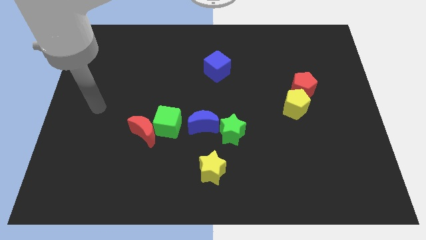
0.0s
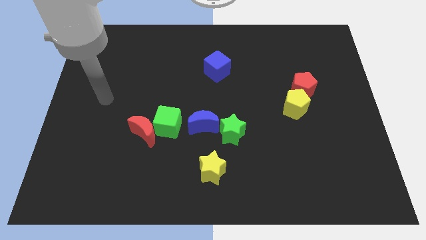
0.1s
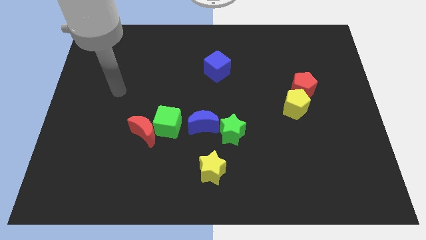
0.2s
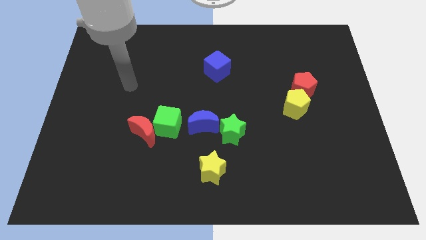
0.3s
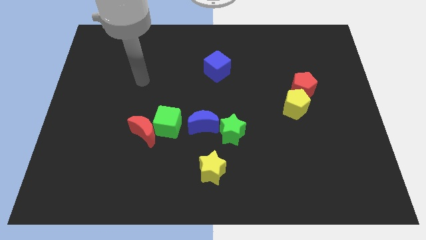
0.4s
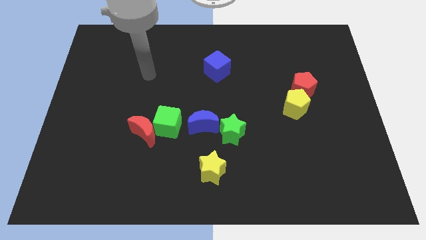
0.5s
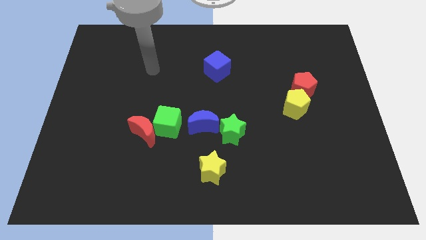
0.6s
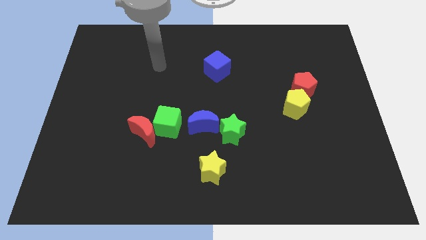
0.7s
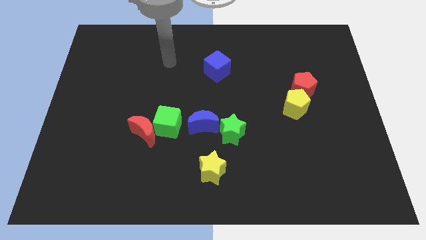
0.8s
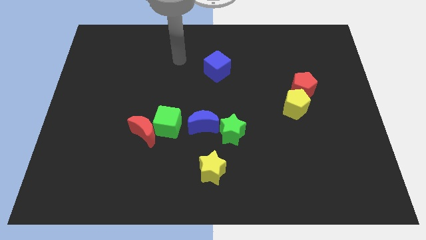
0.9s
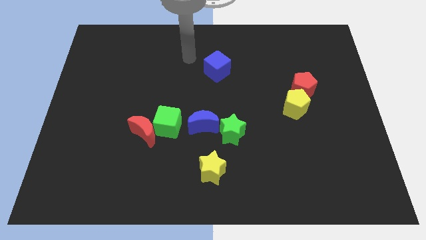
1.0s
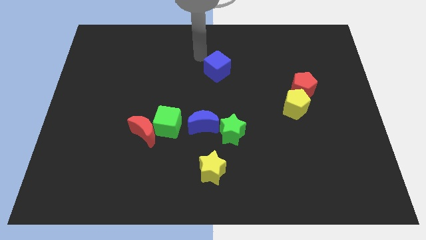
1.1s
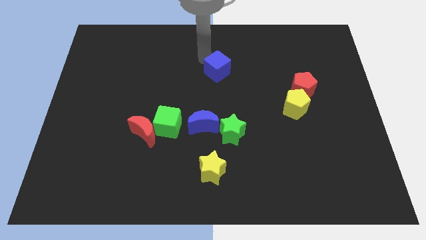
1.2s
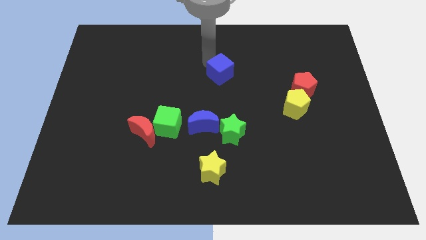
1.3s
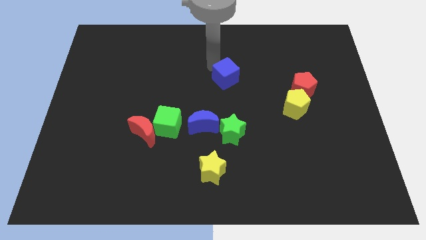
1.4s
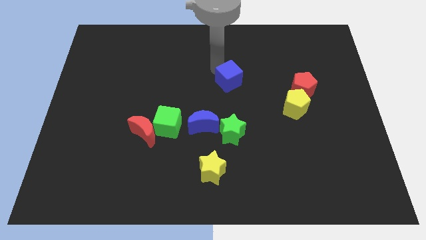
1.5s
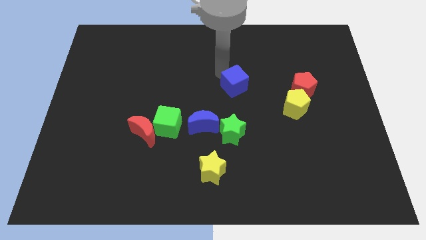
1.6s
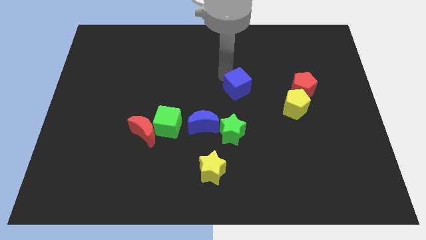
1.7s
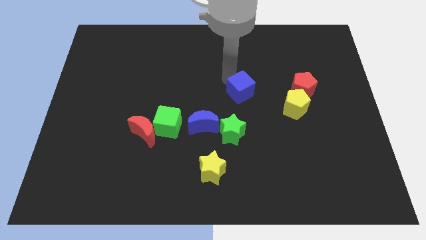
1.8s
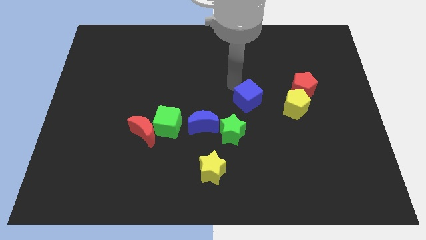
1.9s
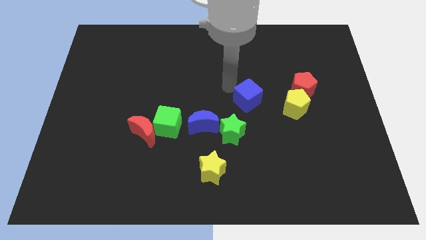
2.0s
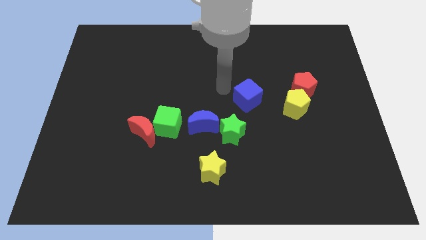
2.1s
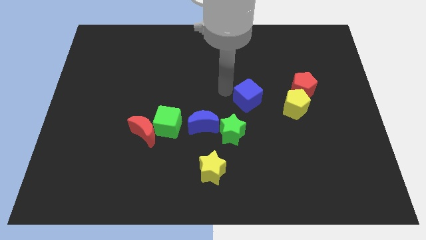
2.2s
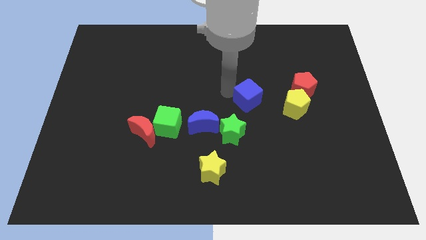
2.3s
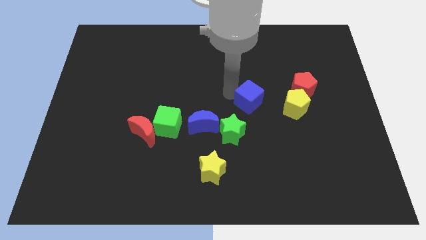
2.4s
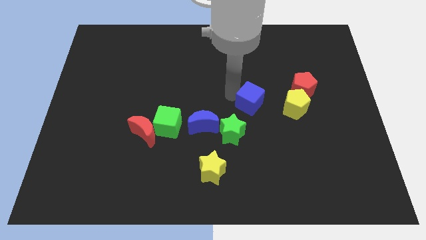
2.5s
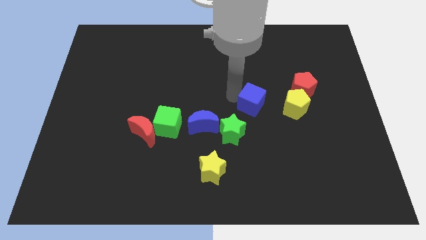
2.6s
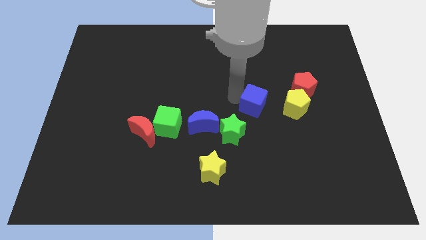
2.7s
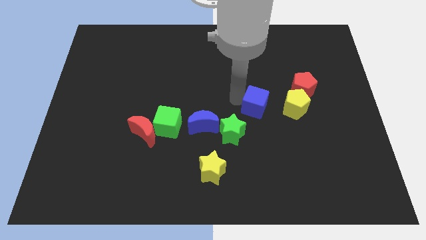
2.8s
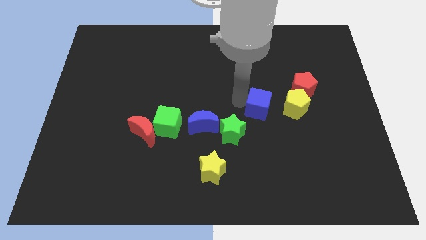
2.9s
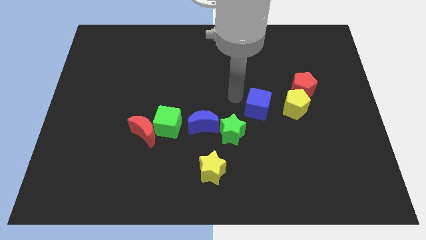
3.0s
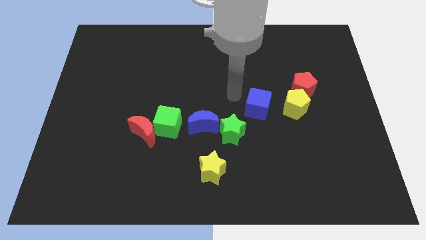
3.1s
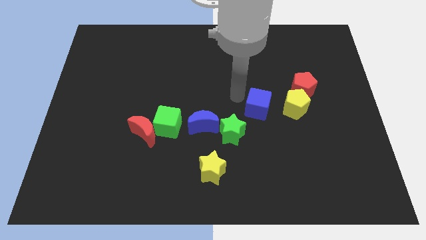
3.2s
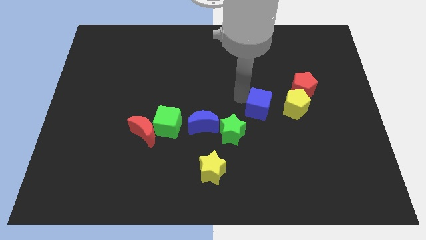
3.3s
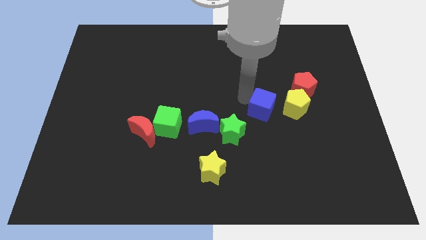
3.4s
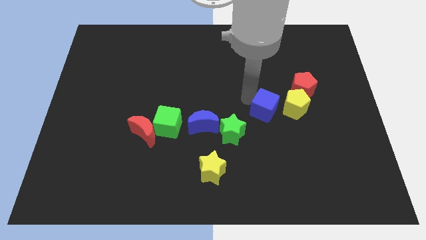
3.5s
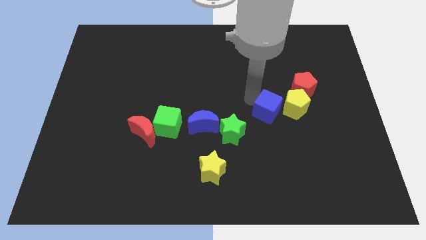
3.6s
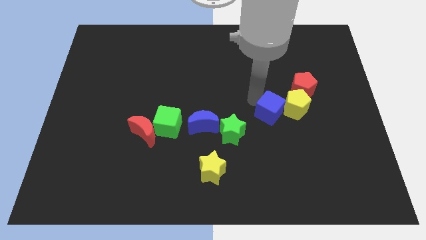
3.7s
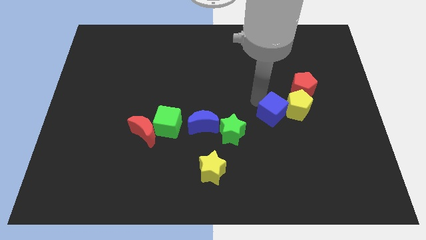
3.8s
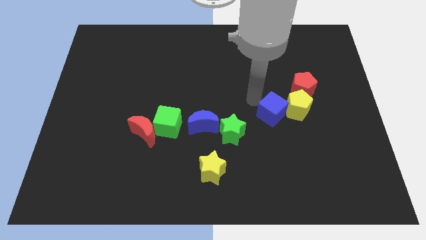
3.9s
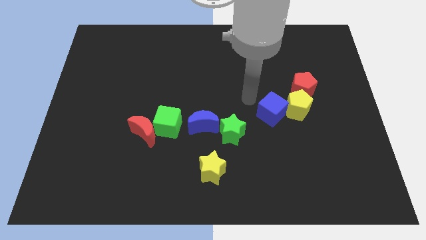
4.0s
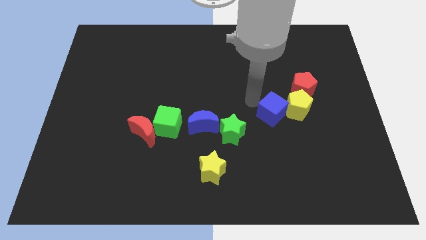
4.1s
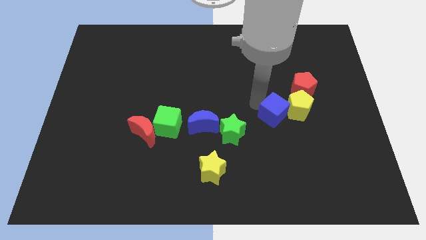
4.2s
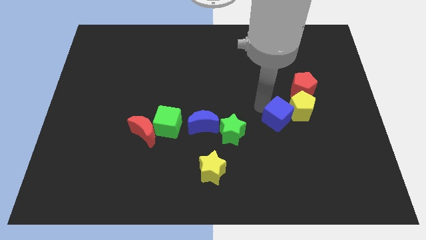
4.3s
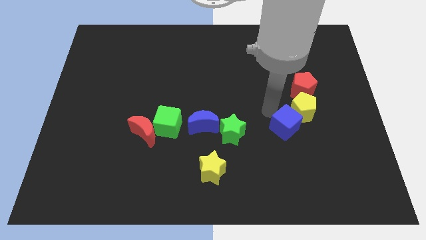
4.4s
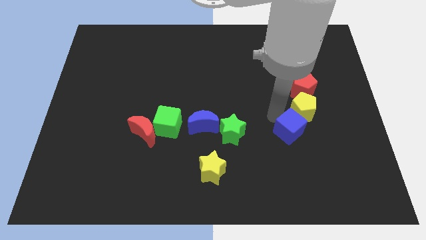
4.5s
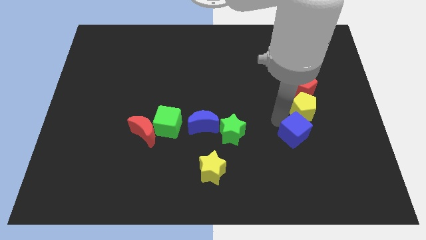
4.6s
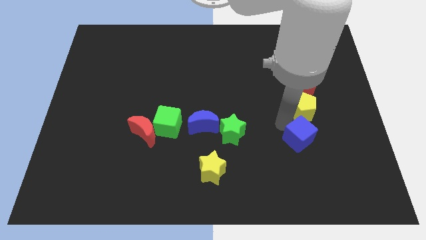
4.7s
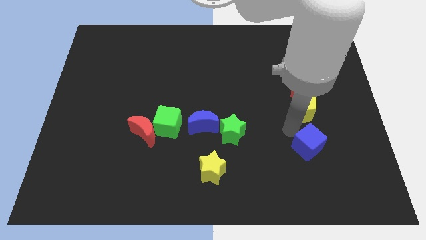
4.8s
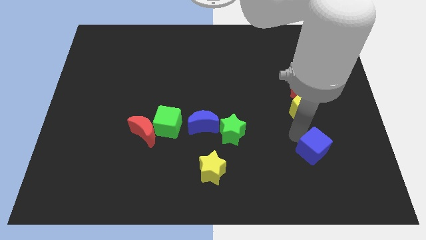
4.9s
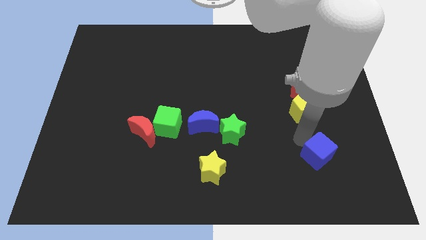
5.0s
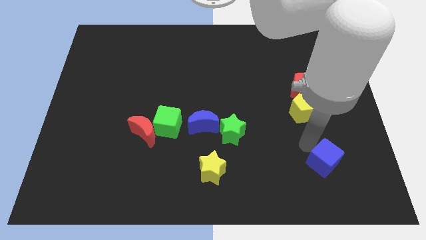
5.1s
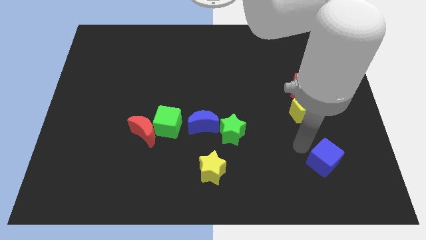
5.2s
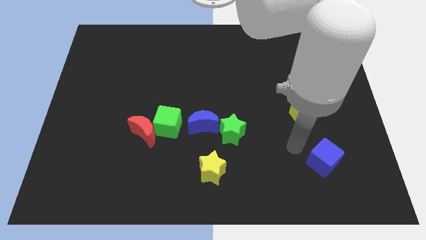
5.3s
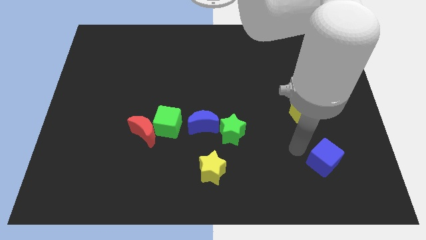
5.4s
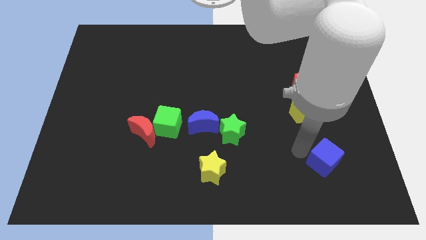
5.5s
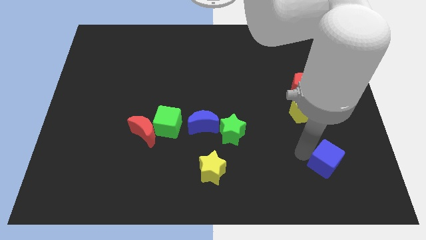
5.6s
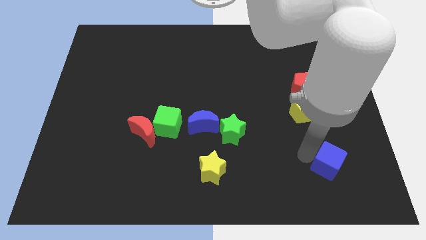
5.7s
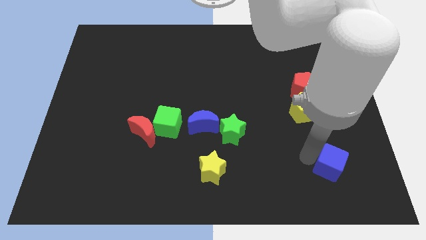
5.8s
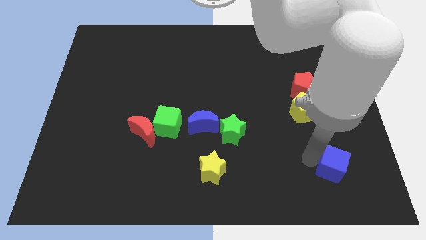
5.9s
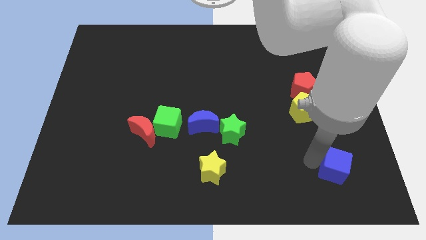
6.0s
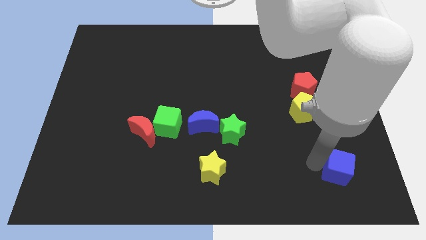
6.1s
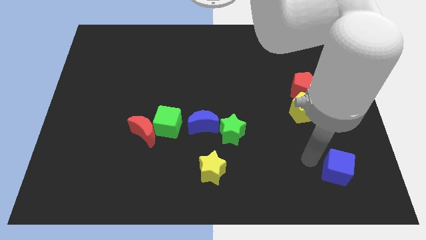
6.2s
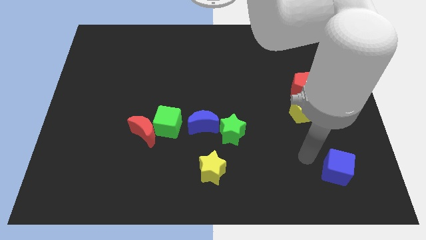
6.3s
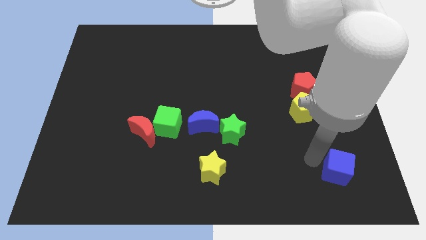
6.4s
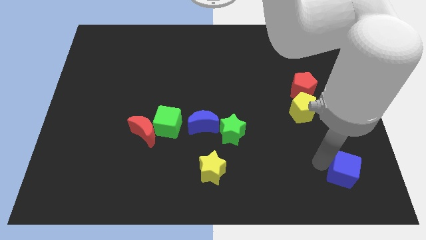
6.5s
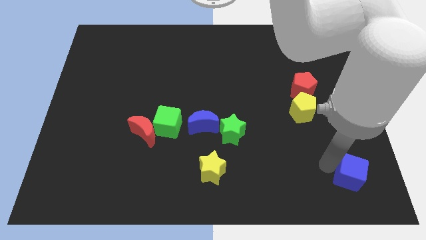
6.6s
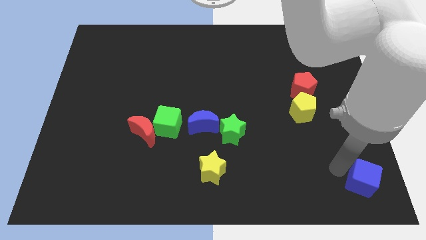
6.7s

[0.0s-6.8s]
put the blue cube to the bottom right
